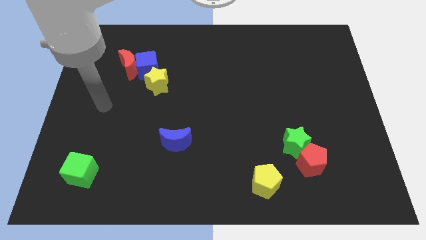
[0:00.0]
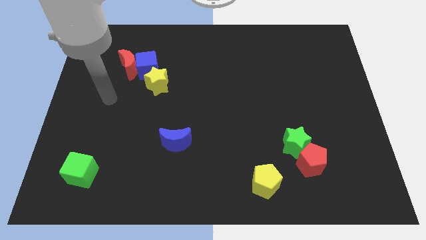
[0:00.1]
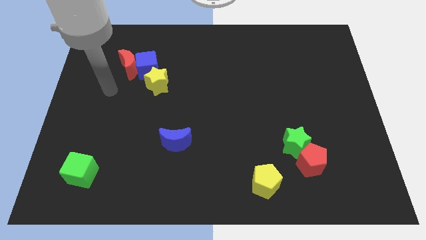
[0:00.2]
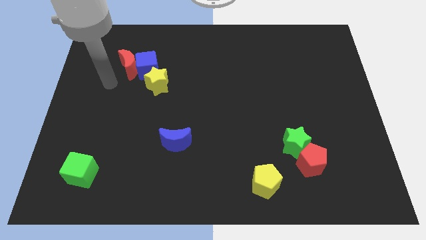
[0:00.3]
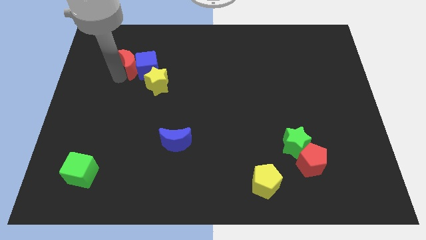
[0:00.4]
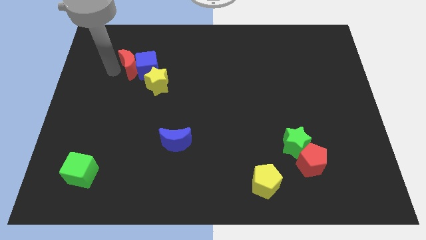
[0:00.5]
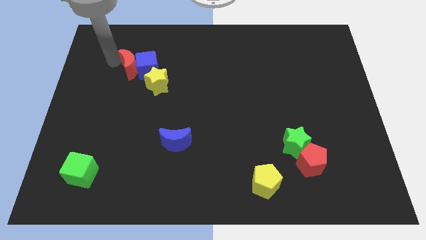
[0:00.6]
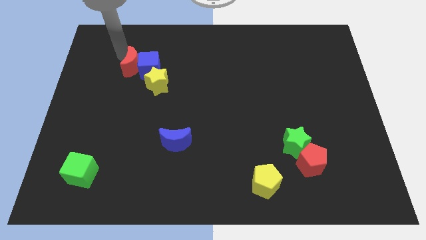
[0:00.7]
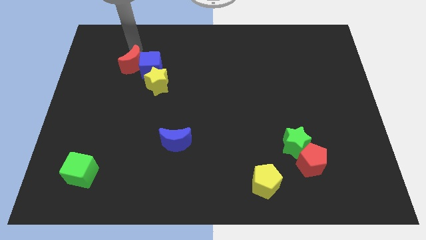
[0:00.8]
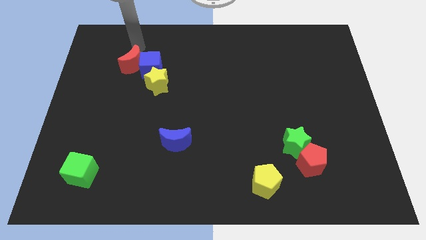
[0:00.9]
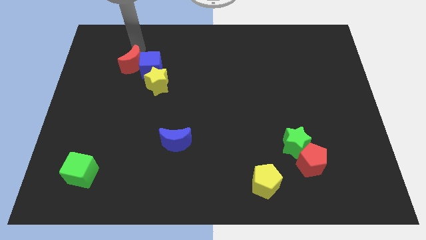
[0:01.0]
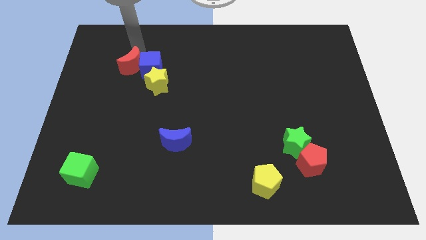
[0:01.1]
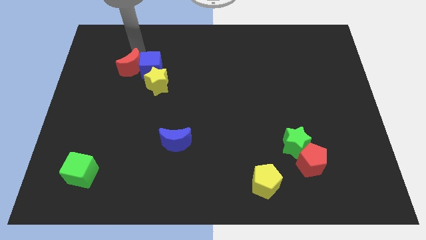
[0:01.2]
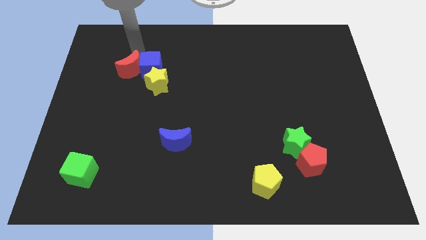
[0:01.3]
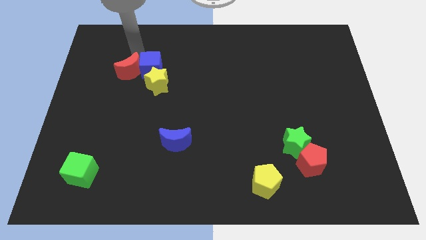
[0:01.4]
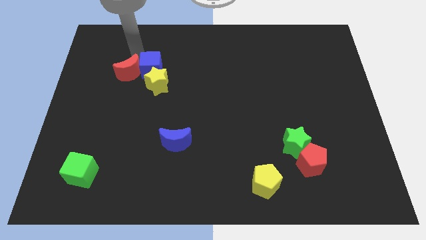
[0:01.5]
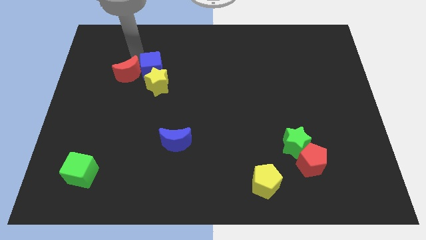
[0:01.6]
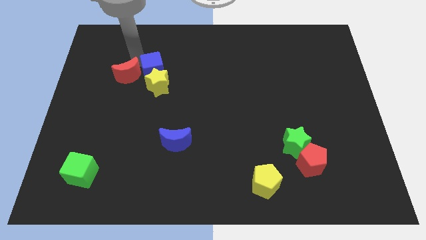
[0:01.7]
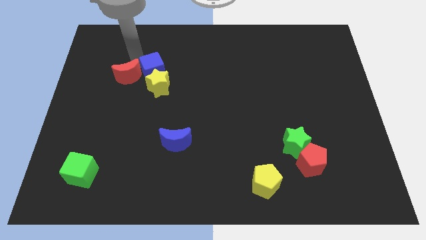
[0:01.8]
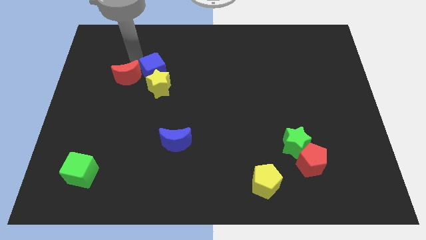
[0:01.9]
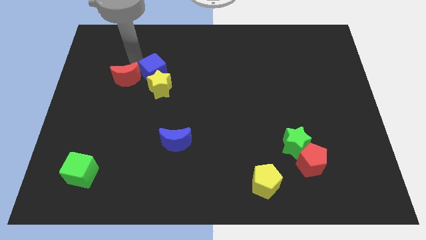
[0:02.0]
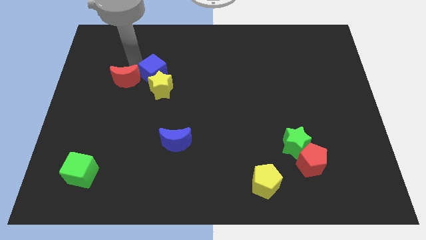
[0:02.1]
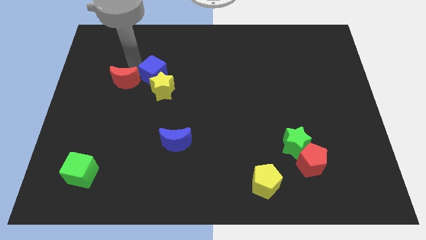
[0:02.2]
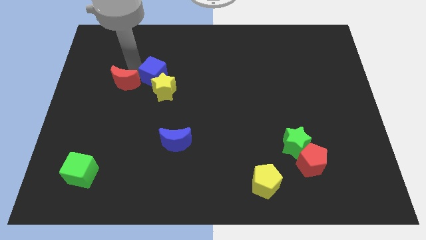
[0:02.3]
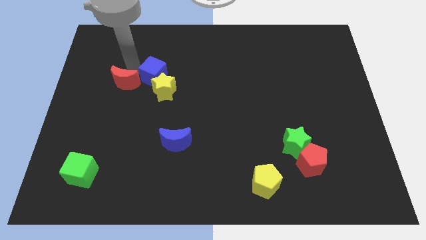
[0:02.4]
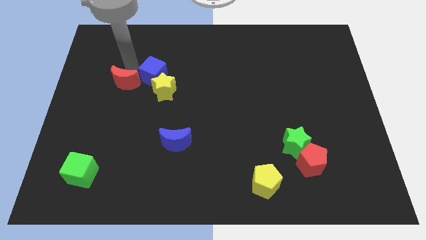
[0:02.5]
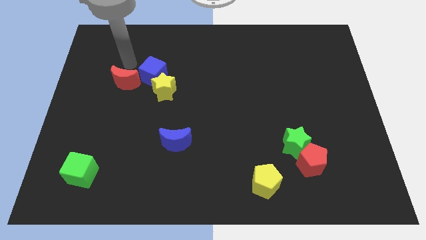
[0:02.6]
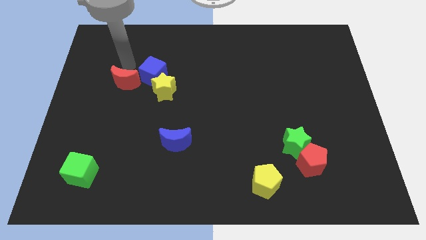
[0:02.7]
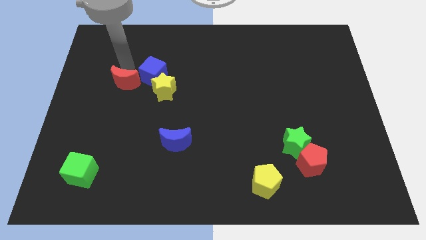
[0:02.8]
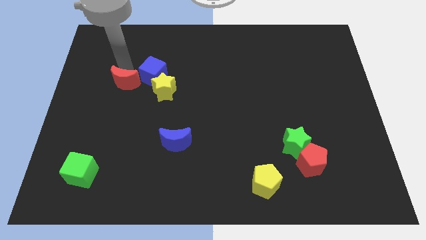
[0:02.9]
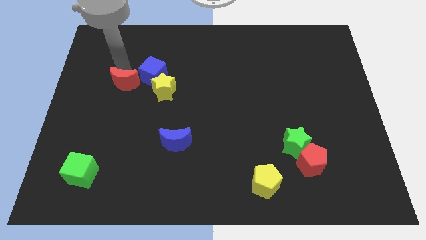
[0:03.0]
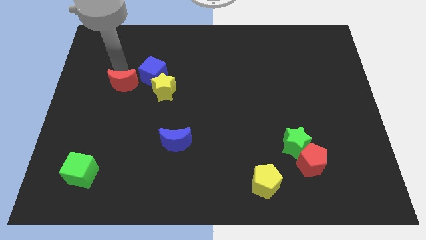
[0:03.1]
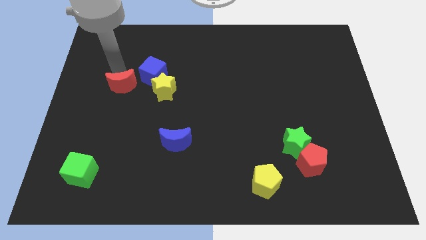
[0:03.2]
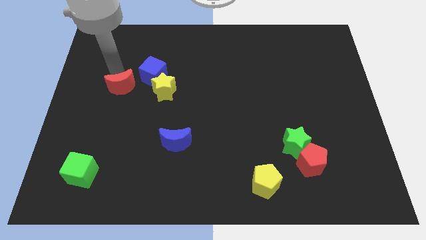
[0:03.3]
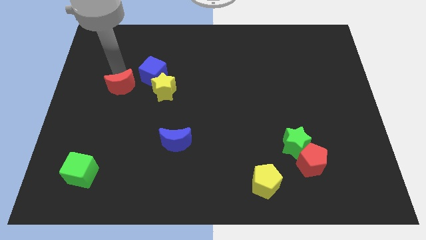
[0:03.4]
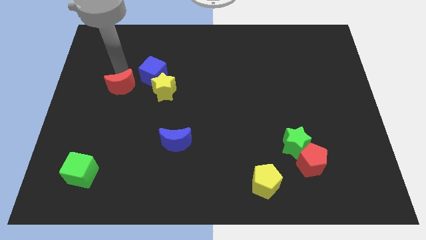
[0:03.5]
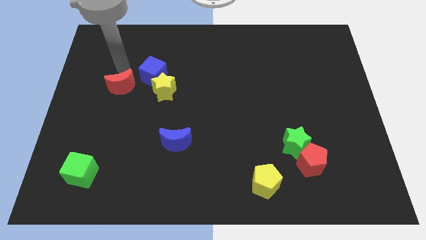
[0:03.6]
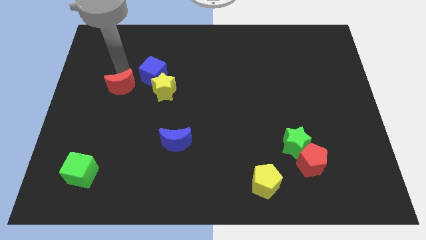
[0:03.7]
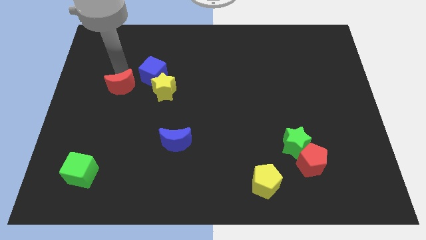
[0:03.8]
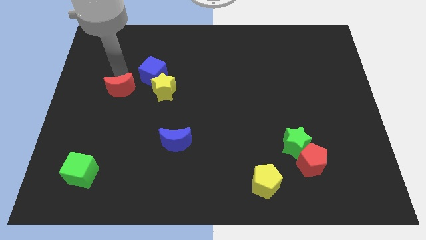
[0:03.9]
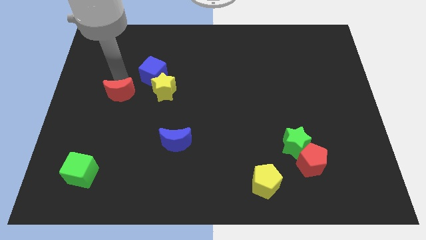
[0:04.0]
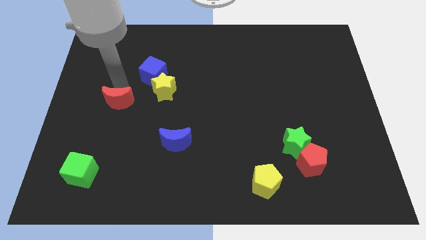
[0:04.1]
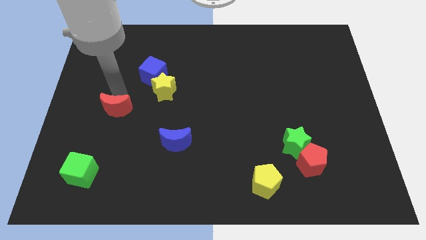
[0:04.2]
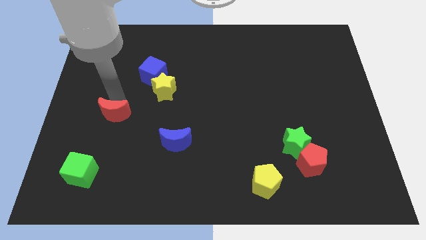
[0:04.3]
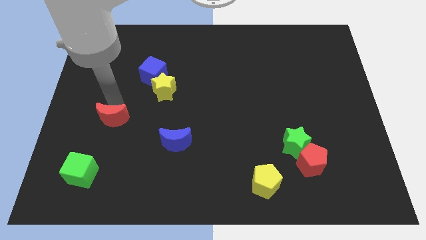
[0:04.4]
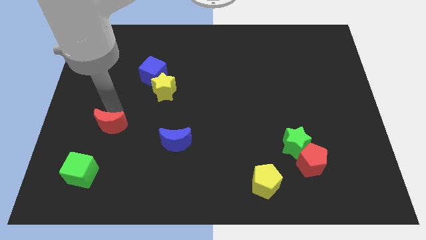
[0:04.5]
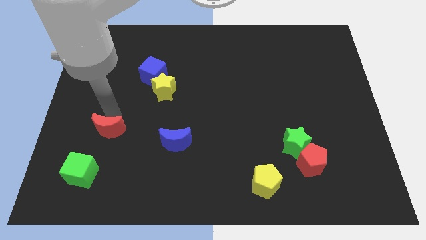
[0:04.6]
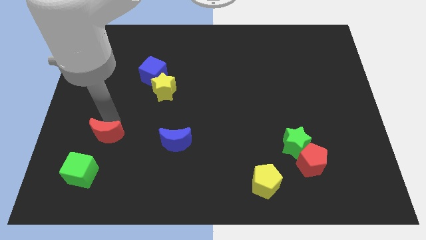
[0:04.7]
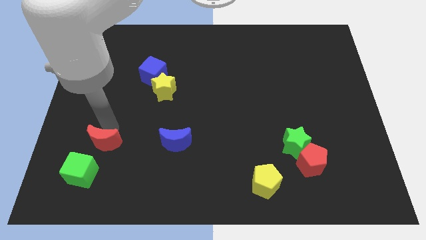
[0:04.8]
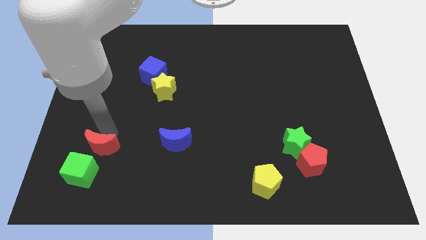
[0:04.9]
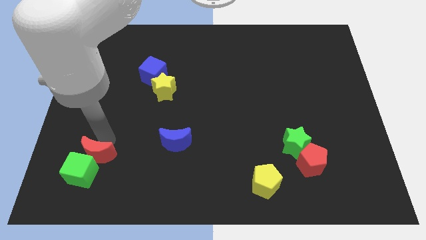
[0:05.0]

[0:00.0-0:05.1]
put the red moon next to the green cube

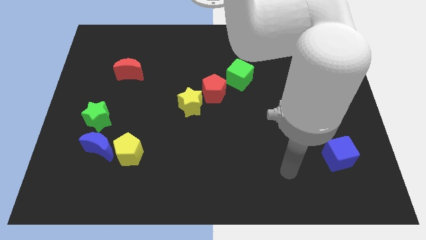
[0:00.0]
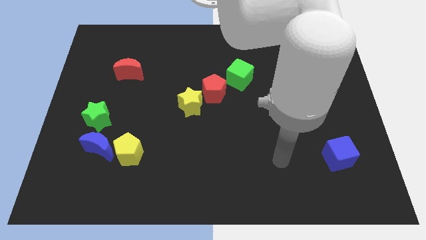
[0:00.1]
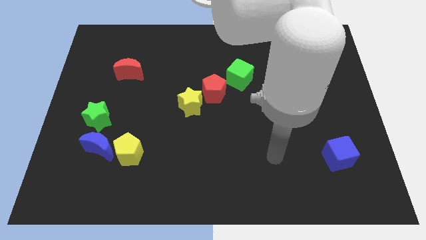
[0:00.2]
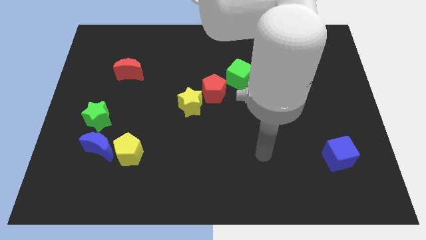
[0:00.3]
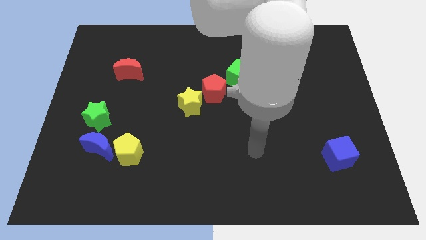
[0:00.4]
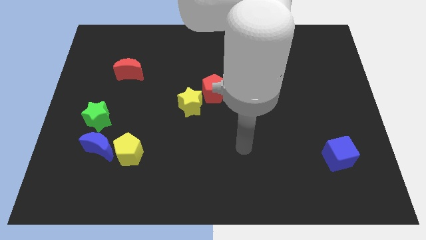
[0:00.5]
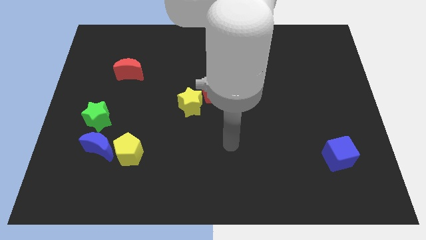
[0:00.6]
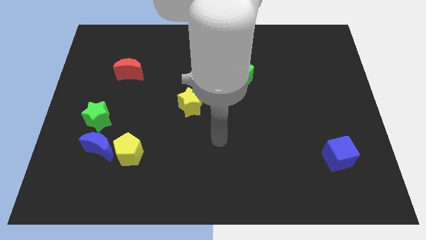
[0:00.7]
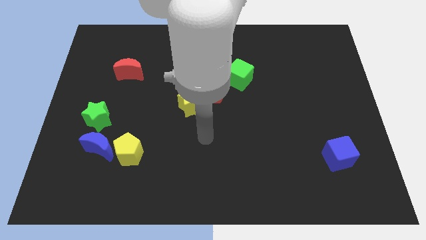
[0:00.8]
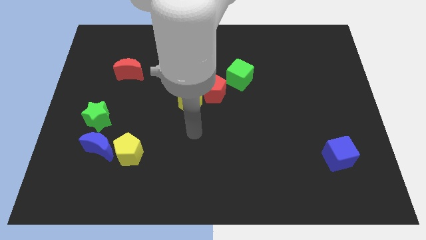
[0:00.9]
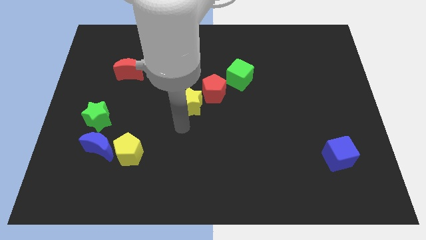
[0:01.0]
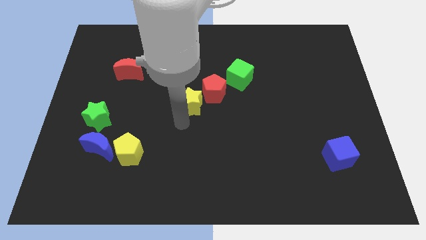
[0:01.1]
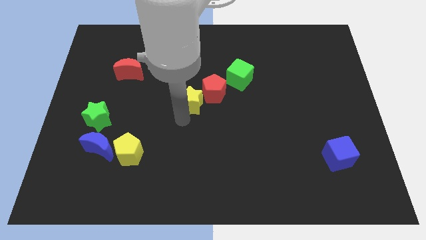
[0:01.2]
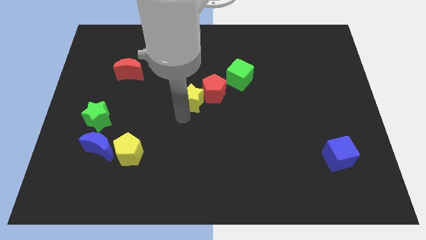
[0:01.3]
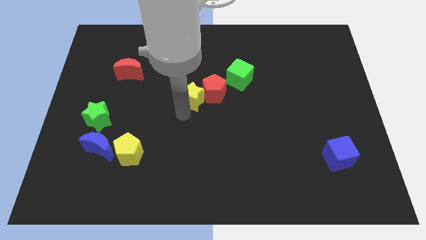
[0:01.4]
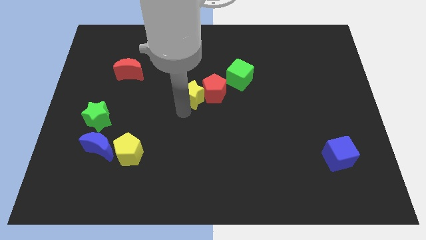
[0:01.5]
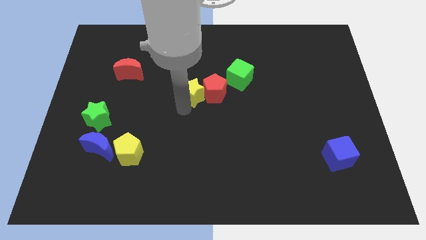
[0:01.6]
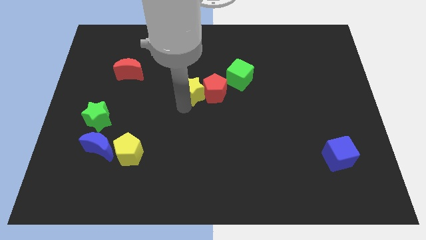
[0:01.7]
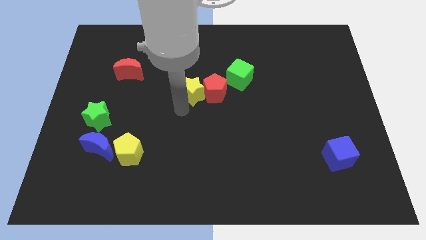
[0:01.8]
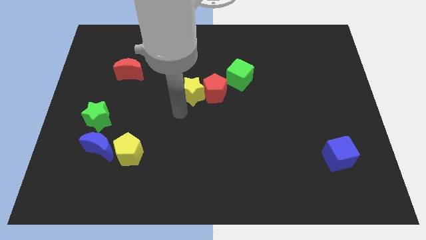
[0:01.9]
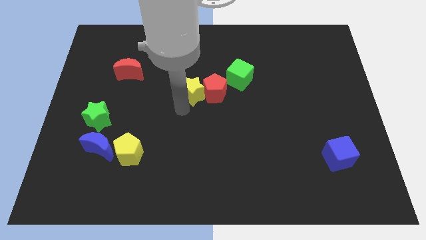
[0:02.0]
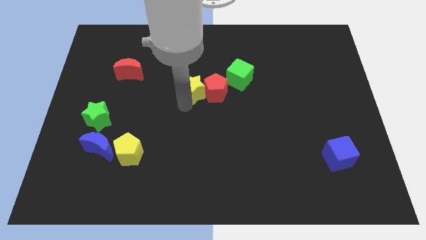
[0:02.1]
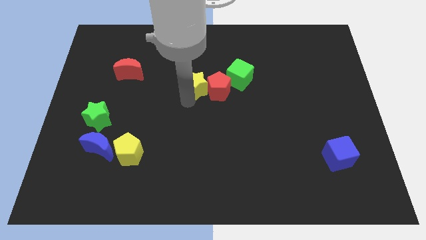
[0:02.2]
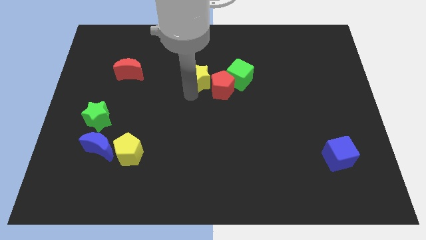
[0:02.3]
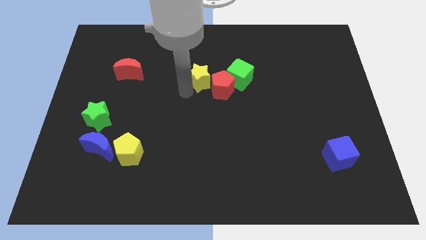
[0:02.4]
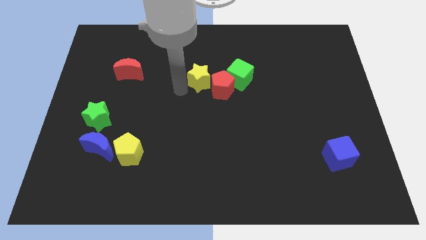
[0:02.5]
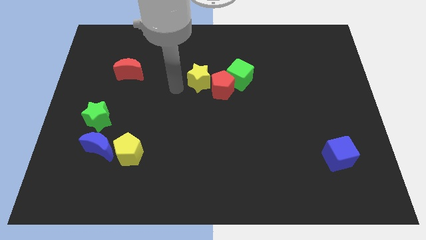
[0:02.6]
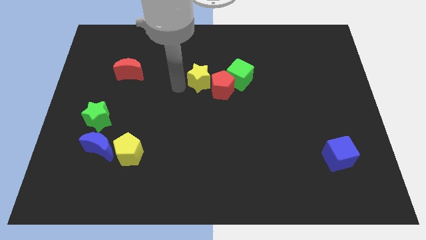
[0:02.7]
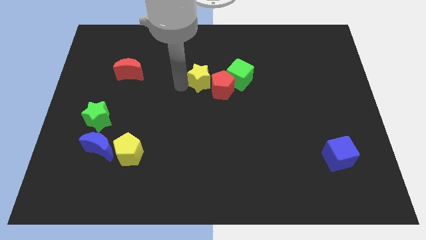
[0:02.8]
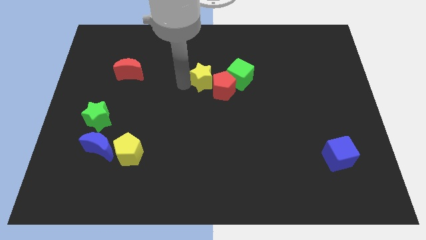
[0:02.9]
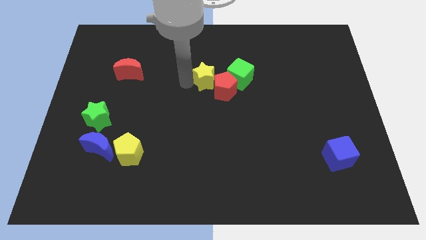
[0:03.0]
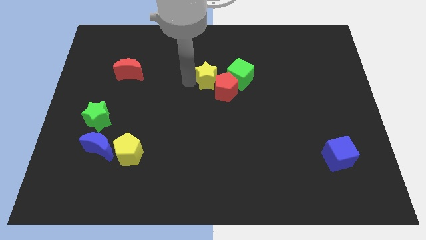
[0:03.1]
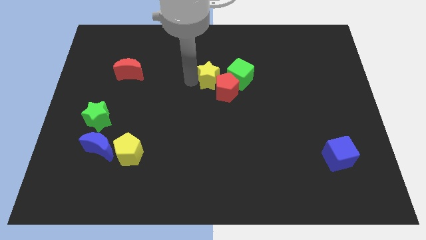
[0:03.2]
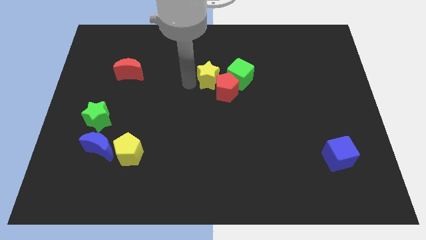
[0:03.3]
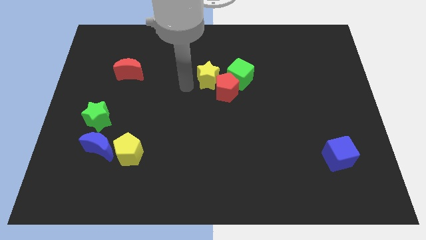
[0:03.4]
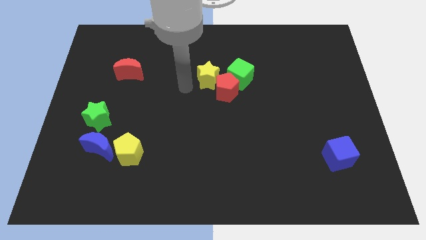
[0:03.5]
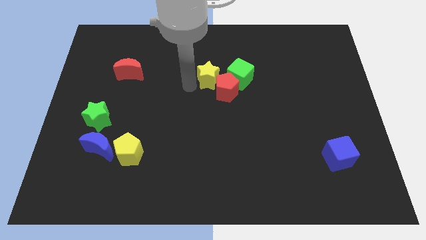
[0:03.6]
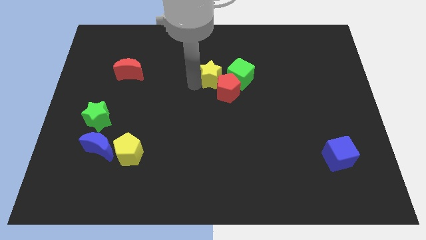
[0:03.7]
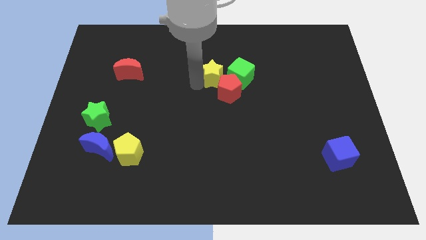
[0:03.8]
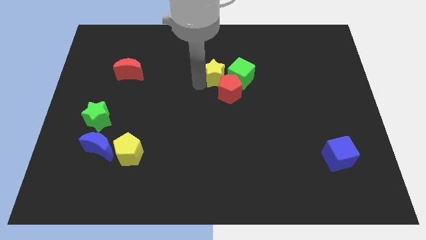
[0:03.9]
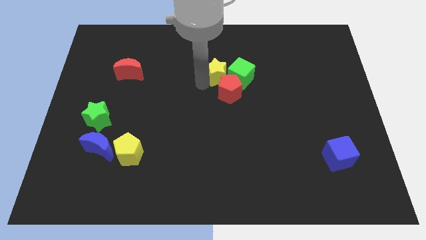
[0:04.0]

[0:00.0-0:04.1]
push the yellow star next to the green cube
